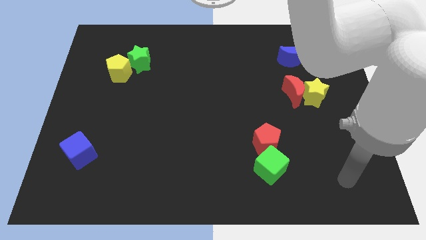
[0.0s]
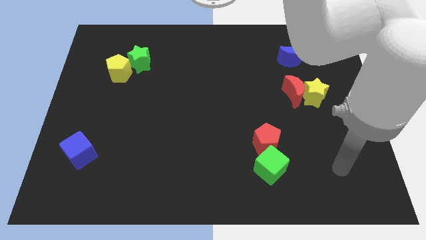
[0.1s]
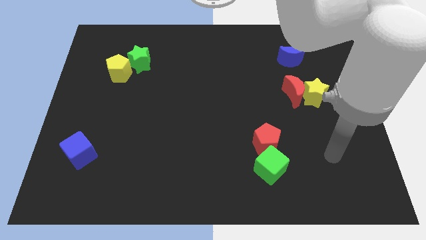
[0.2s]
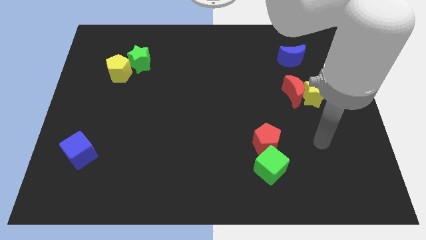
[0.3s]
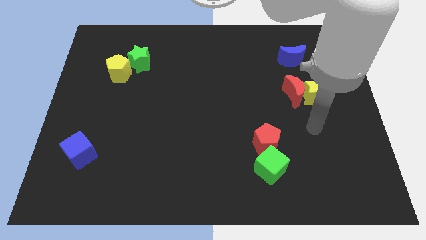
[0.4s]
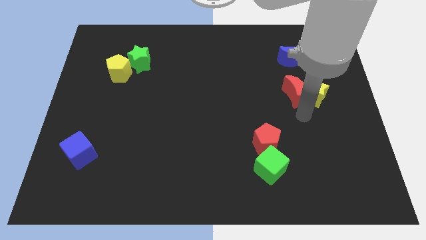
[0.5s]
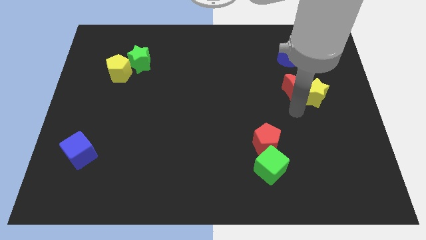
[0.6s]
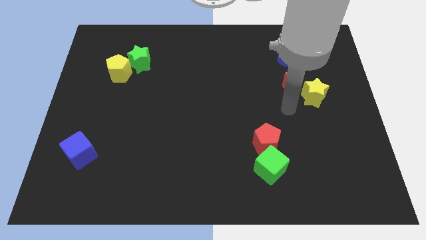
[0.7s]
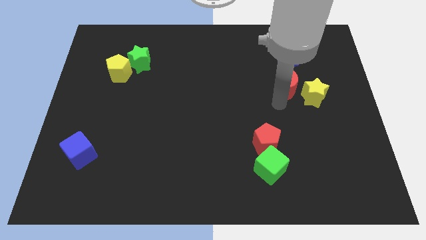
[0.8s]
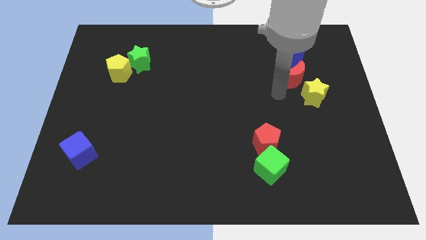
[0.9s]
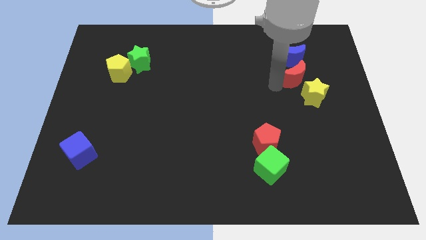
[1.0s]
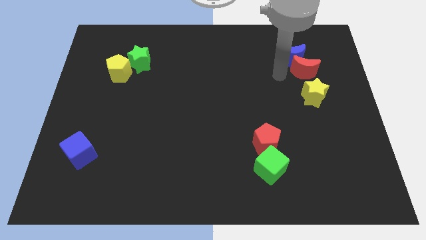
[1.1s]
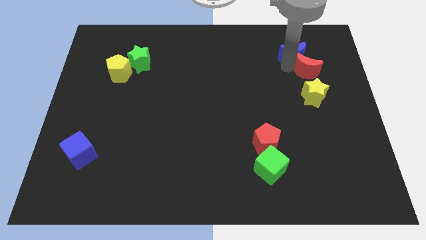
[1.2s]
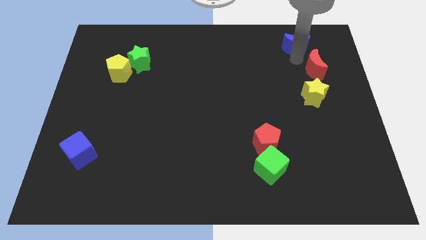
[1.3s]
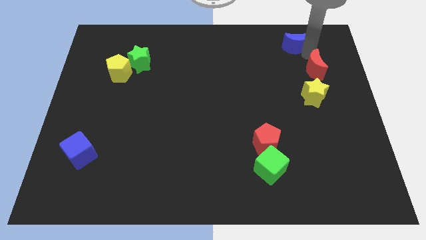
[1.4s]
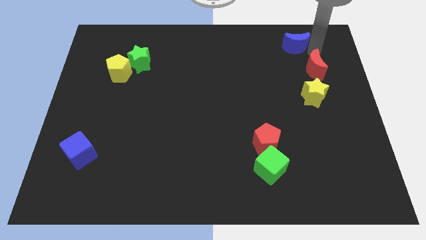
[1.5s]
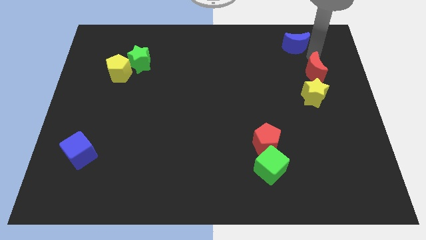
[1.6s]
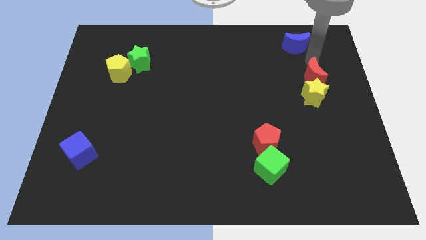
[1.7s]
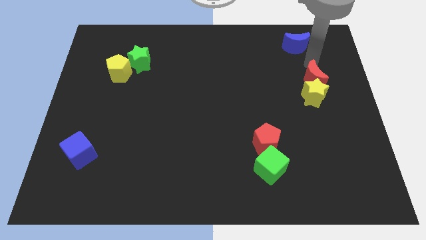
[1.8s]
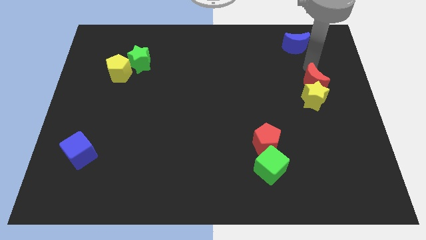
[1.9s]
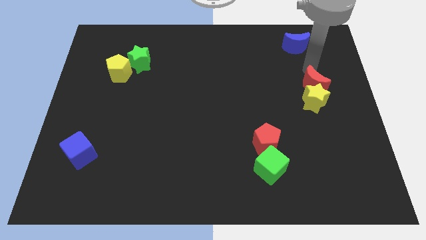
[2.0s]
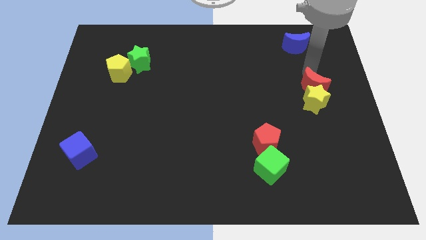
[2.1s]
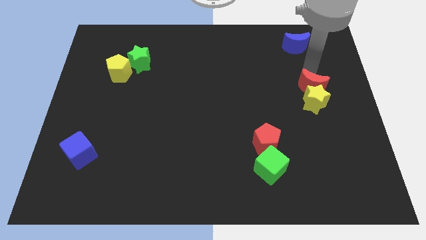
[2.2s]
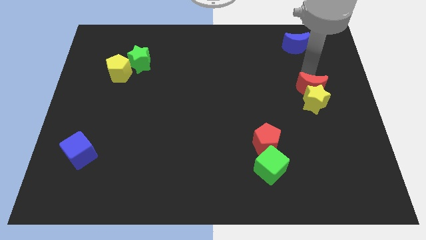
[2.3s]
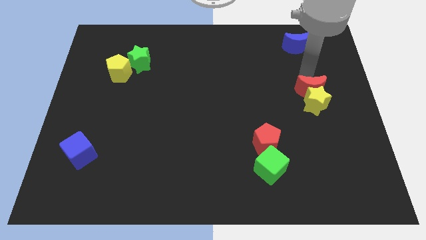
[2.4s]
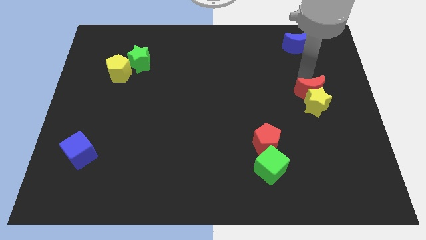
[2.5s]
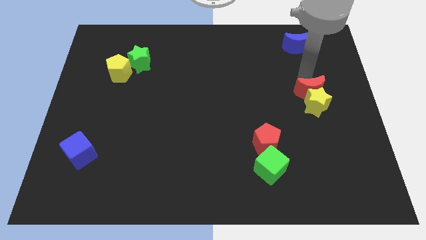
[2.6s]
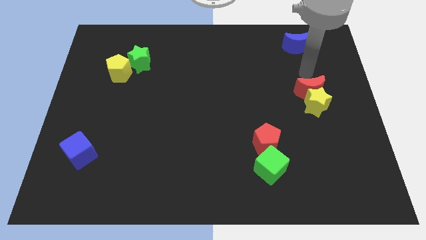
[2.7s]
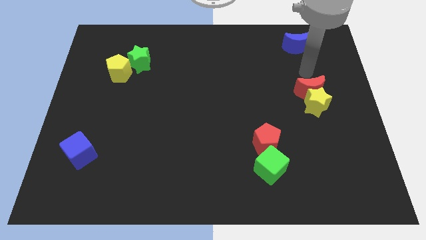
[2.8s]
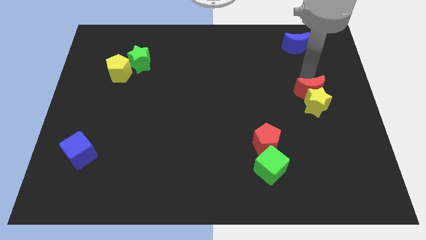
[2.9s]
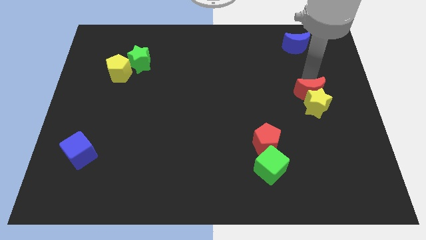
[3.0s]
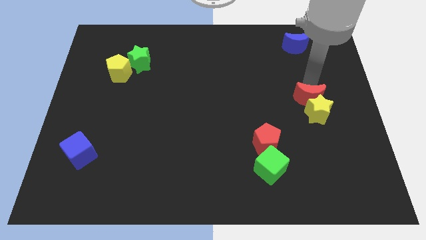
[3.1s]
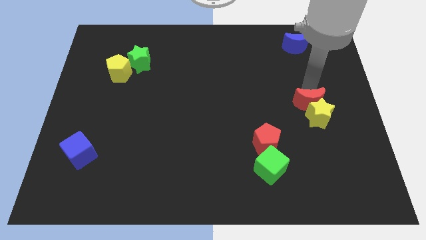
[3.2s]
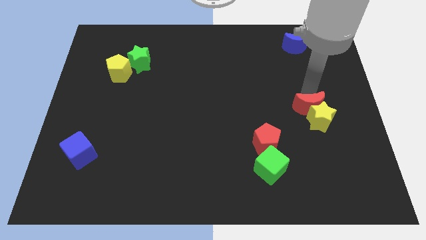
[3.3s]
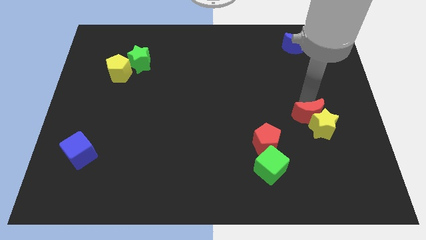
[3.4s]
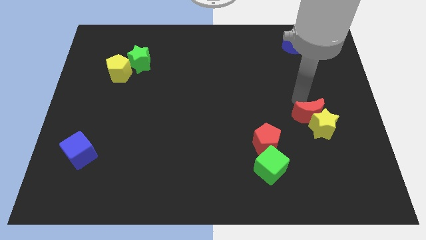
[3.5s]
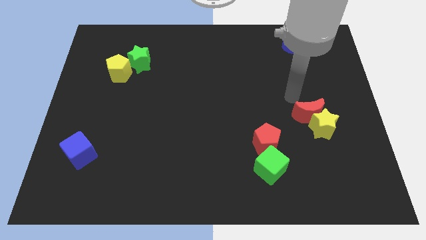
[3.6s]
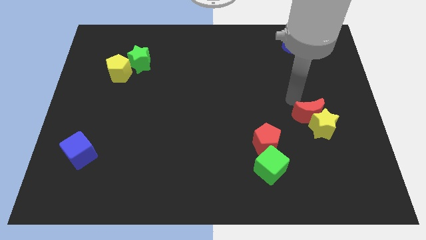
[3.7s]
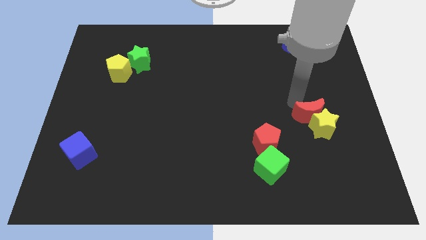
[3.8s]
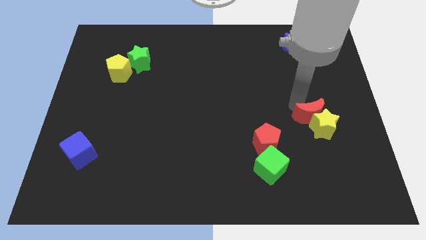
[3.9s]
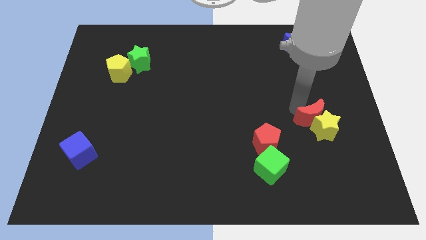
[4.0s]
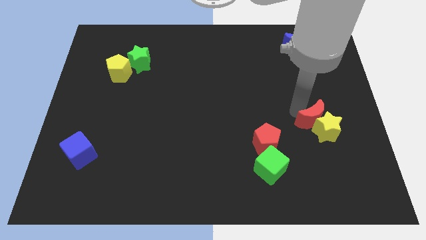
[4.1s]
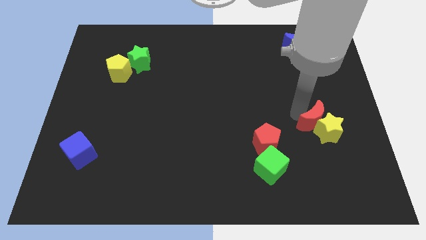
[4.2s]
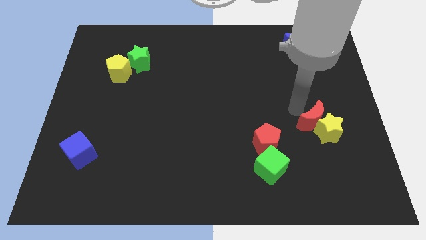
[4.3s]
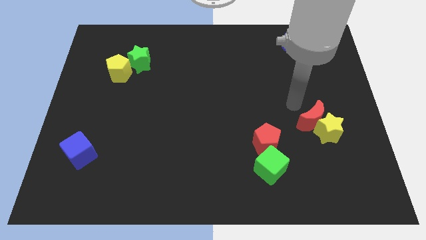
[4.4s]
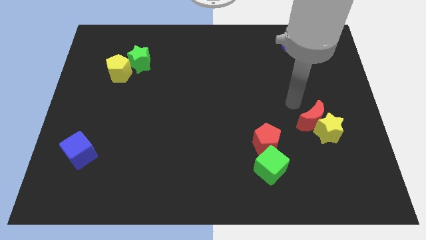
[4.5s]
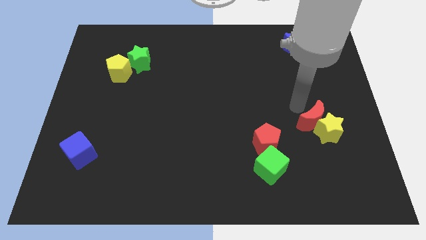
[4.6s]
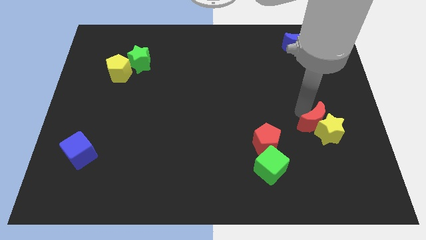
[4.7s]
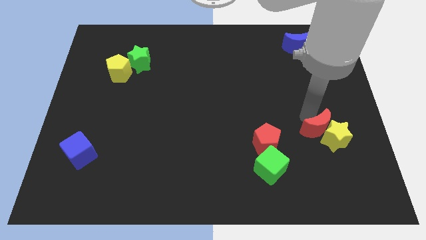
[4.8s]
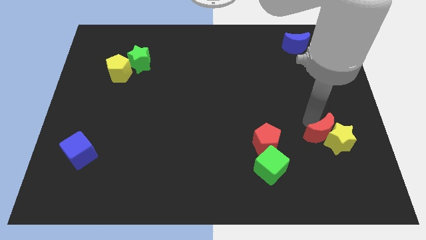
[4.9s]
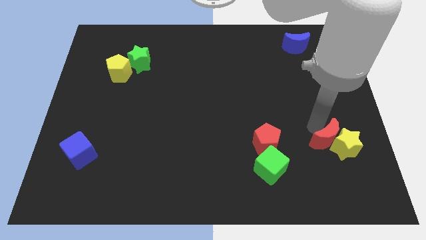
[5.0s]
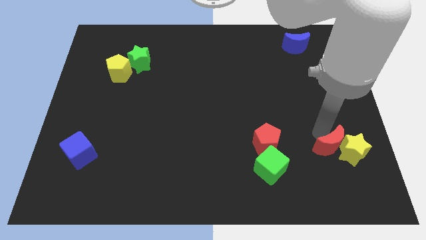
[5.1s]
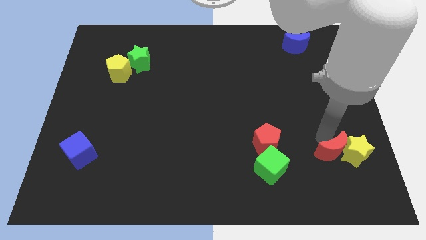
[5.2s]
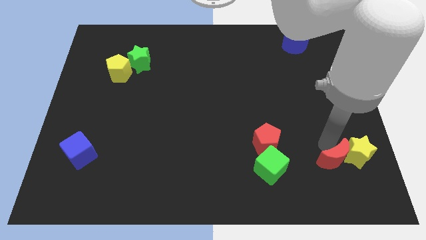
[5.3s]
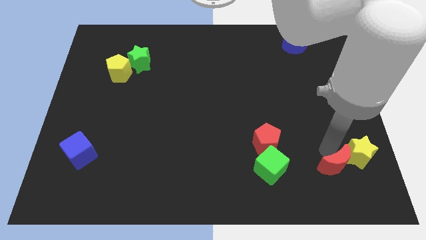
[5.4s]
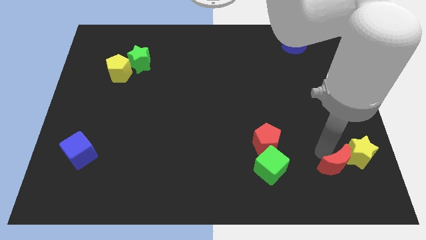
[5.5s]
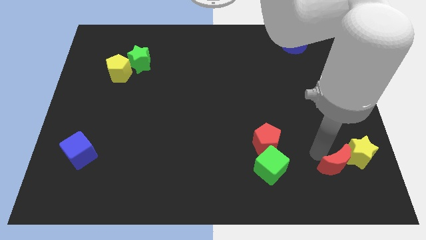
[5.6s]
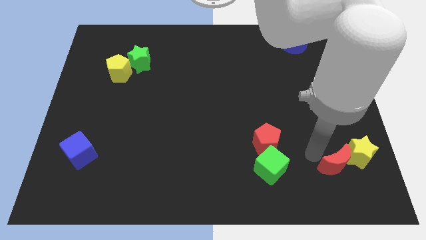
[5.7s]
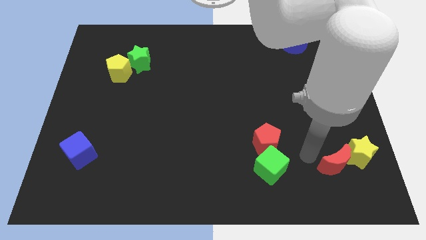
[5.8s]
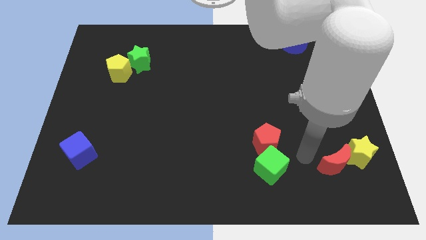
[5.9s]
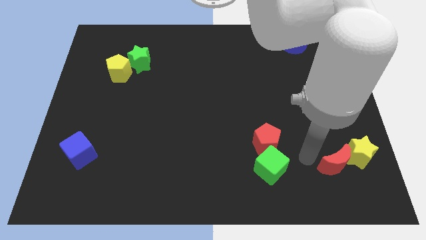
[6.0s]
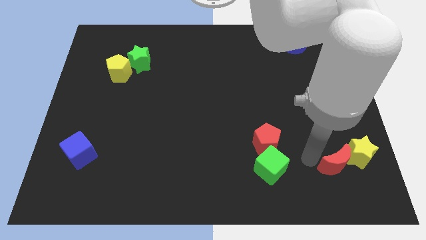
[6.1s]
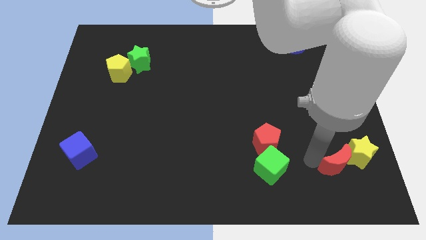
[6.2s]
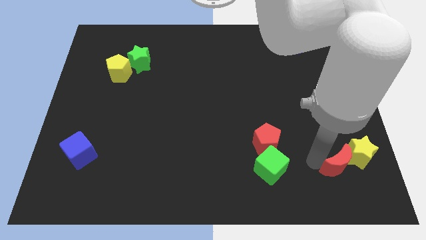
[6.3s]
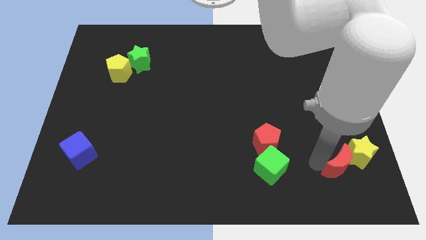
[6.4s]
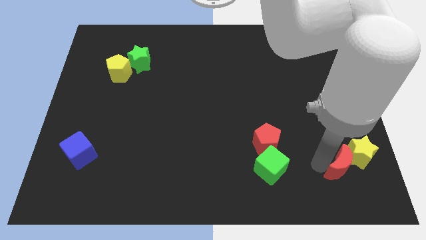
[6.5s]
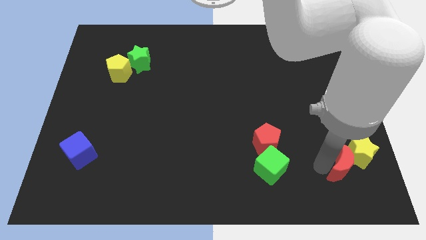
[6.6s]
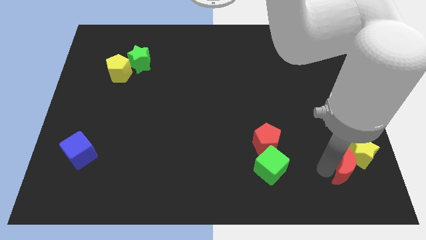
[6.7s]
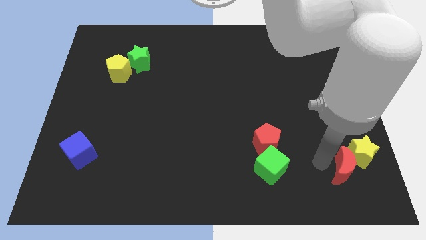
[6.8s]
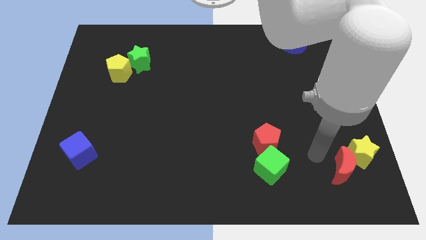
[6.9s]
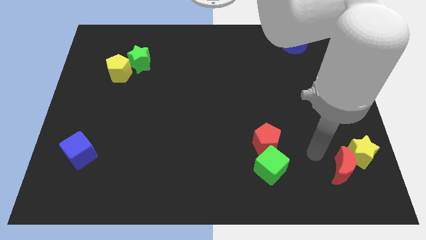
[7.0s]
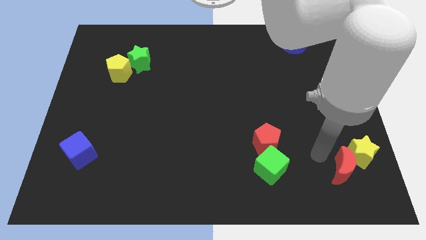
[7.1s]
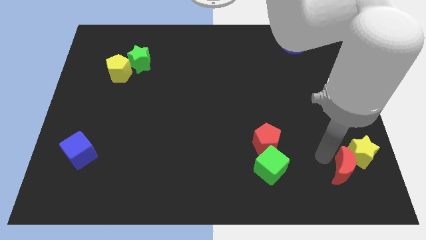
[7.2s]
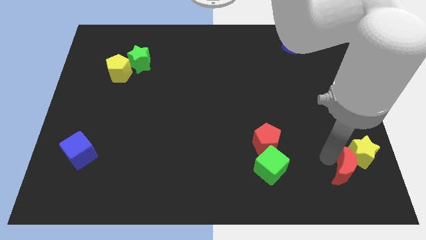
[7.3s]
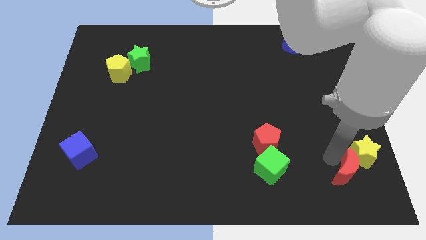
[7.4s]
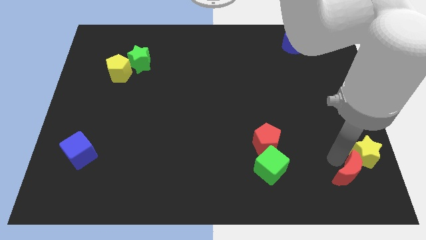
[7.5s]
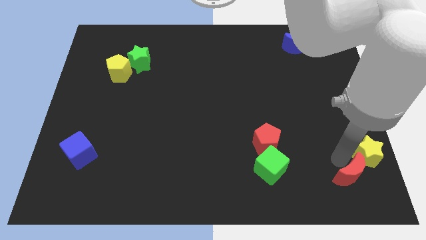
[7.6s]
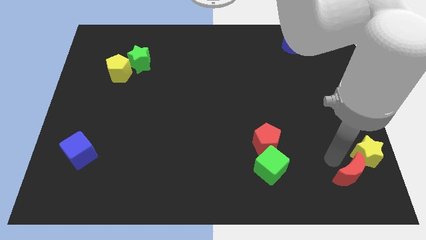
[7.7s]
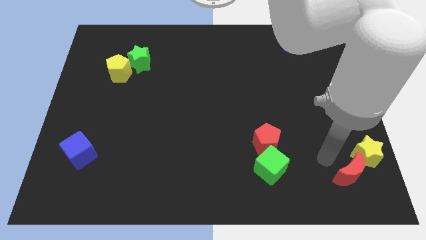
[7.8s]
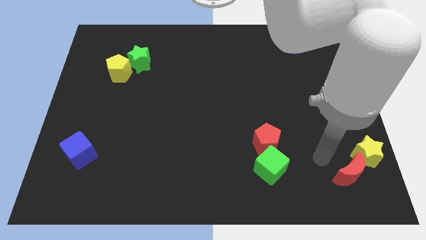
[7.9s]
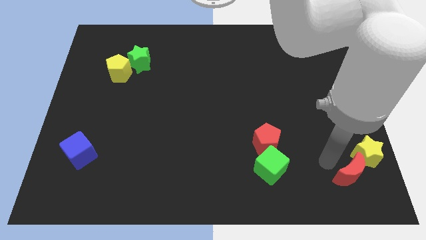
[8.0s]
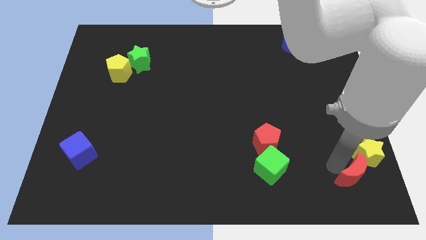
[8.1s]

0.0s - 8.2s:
move the red moon to the bottom right of the board
